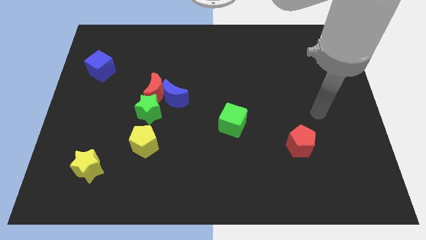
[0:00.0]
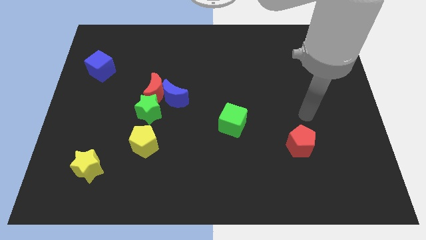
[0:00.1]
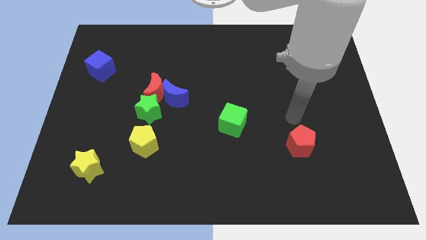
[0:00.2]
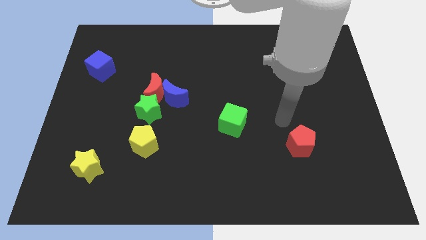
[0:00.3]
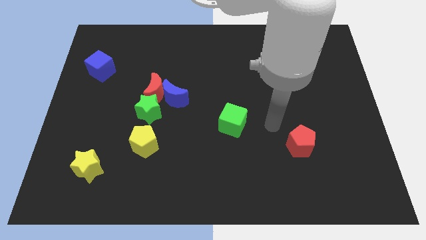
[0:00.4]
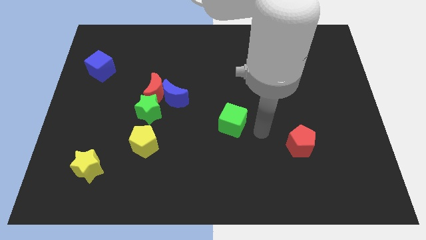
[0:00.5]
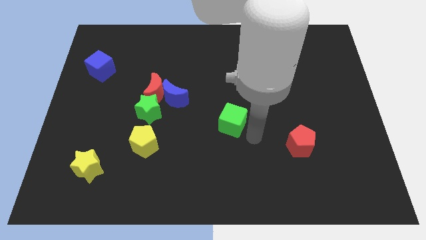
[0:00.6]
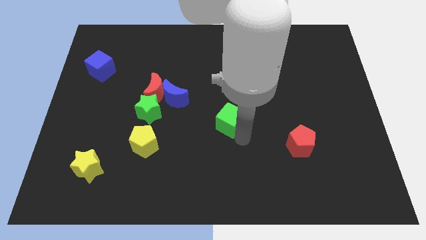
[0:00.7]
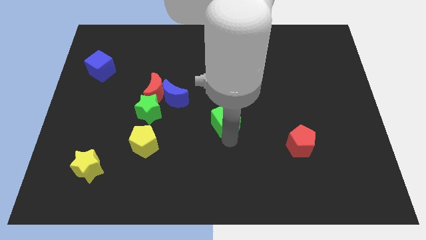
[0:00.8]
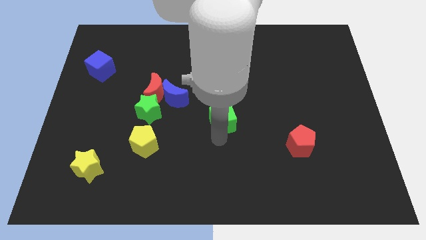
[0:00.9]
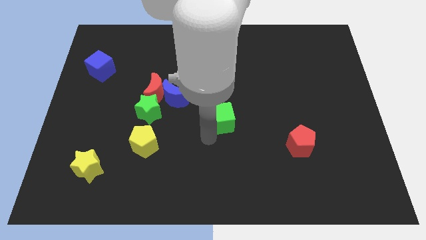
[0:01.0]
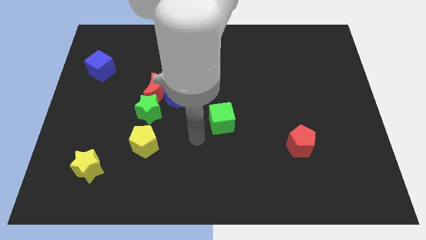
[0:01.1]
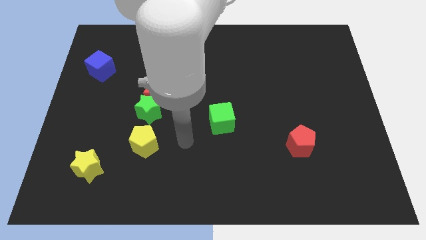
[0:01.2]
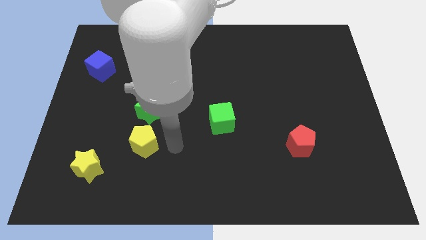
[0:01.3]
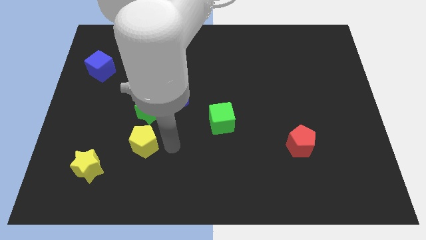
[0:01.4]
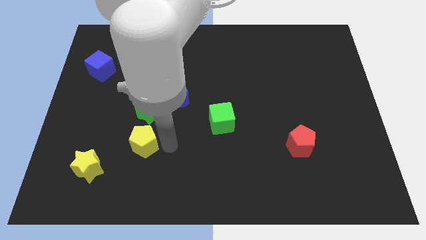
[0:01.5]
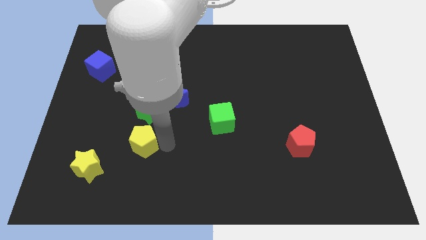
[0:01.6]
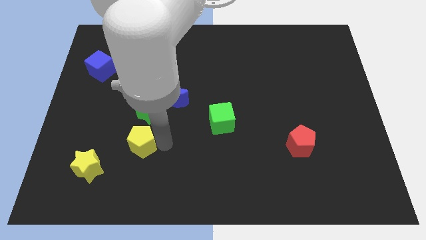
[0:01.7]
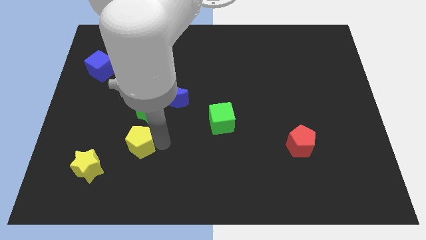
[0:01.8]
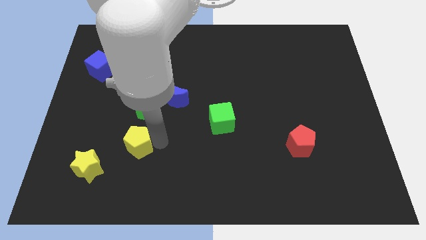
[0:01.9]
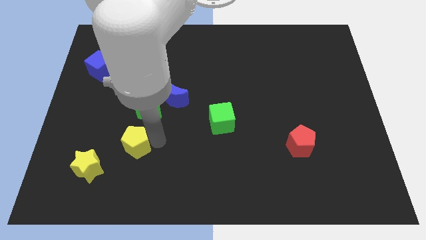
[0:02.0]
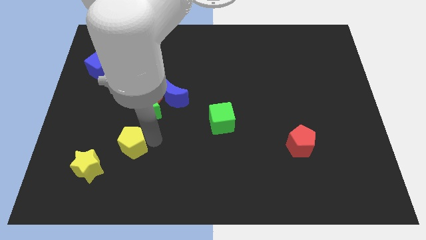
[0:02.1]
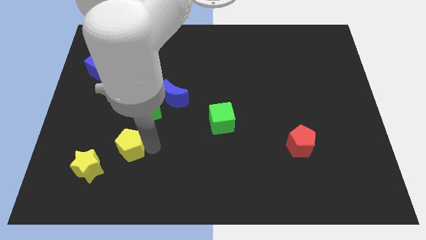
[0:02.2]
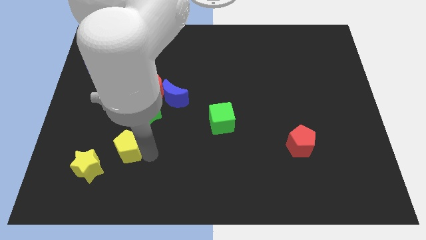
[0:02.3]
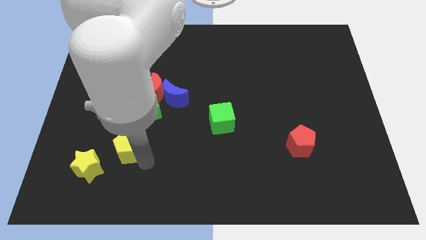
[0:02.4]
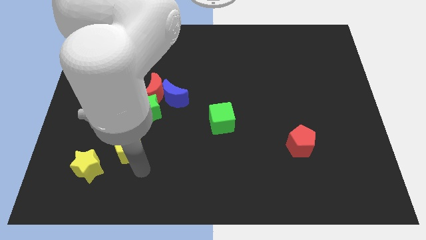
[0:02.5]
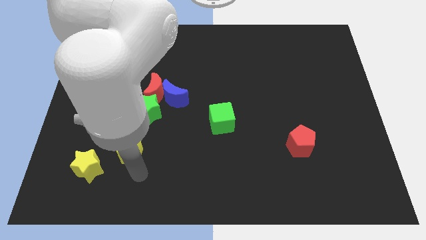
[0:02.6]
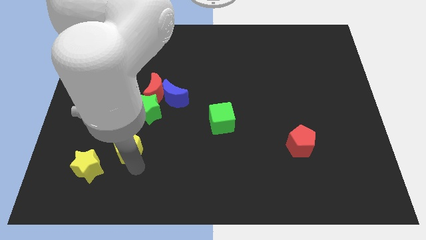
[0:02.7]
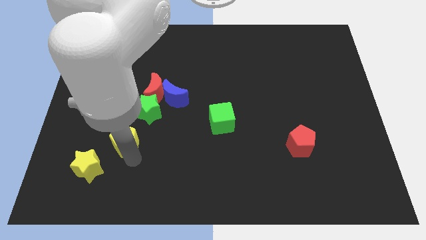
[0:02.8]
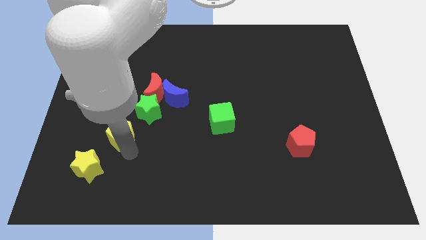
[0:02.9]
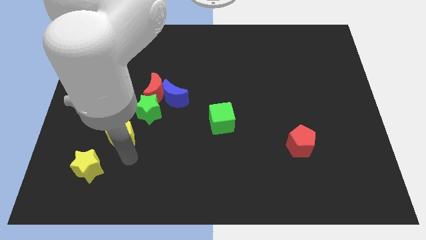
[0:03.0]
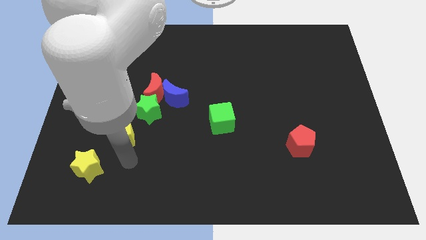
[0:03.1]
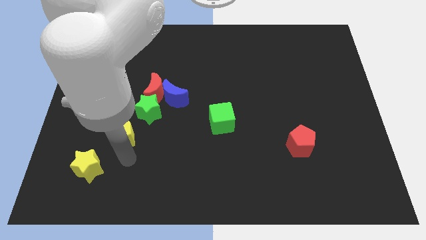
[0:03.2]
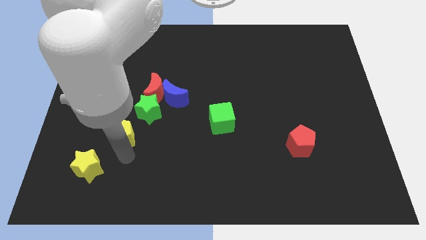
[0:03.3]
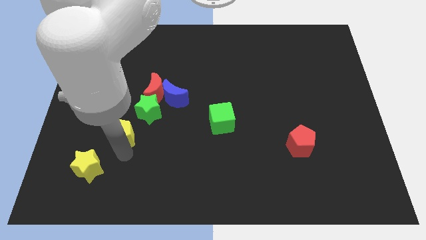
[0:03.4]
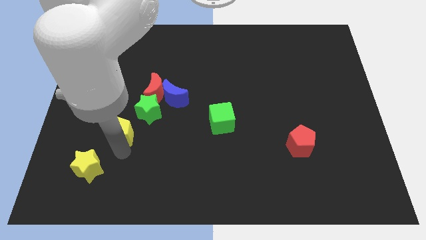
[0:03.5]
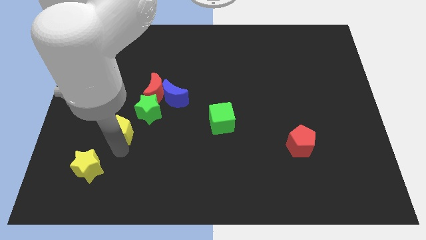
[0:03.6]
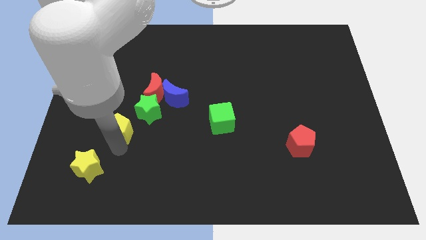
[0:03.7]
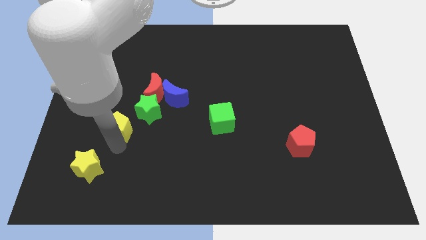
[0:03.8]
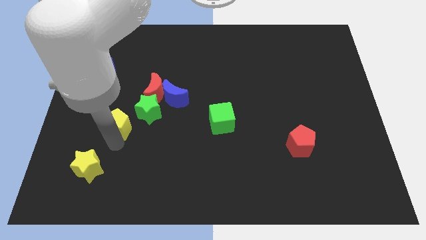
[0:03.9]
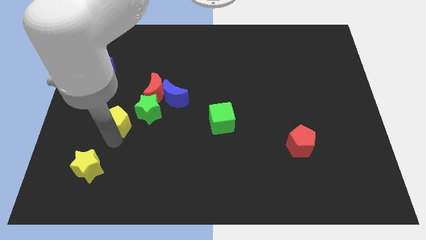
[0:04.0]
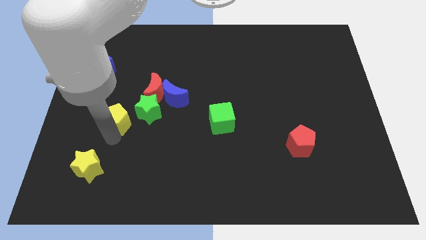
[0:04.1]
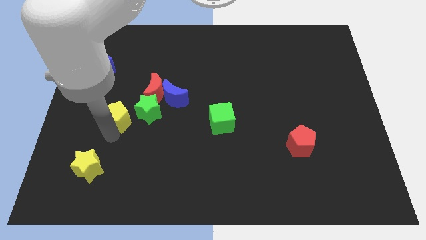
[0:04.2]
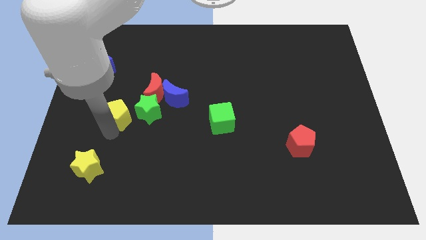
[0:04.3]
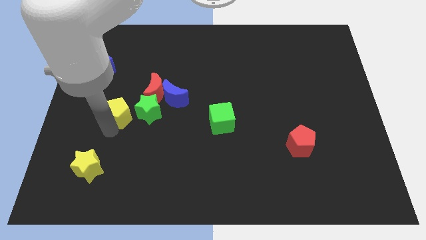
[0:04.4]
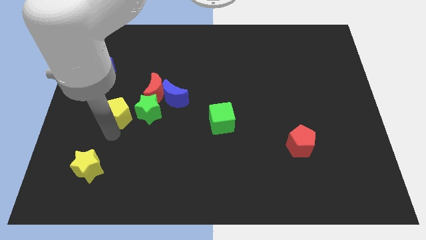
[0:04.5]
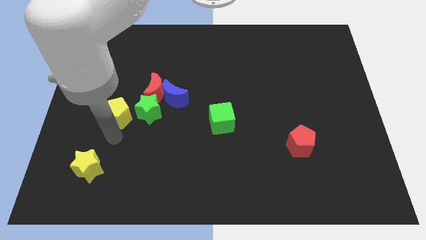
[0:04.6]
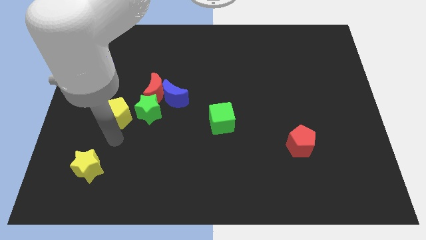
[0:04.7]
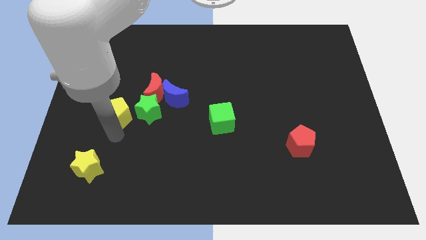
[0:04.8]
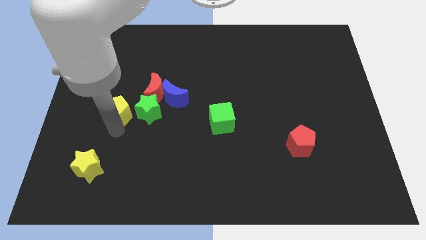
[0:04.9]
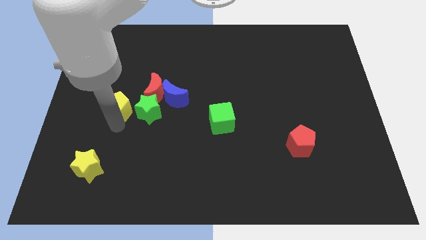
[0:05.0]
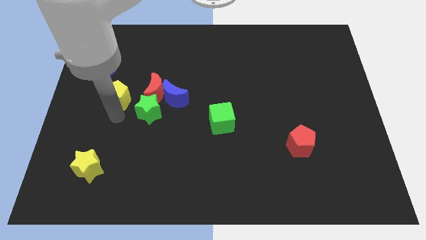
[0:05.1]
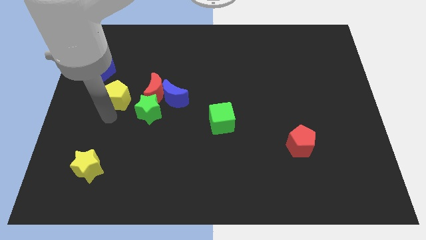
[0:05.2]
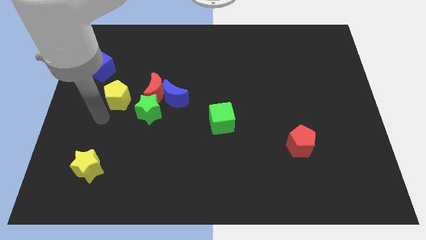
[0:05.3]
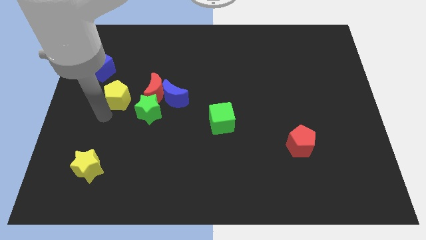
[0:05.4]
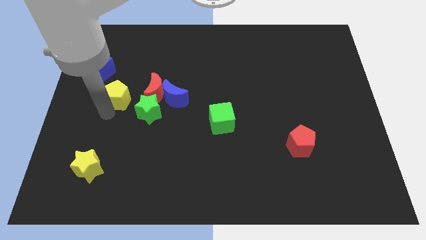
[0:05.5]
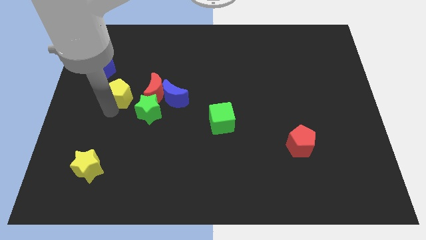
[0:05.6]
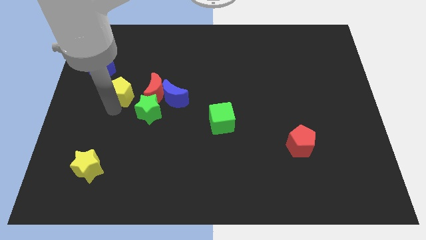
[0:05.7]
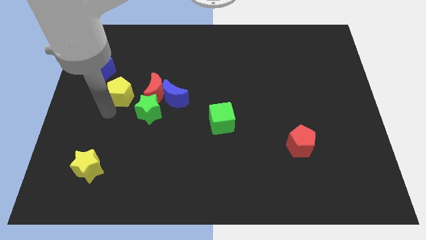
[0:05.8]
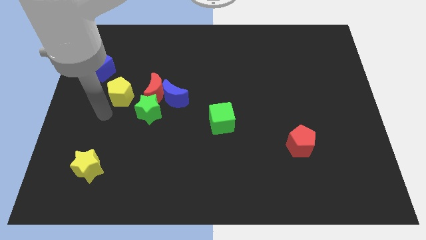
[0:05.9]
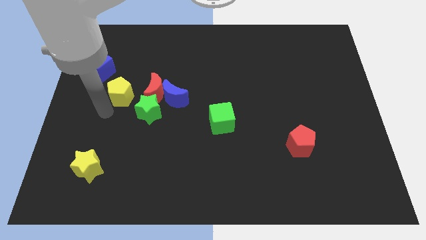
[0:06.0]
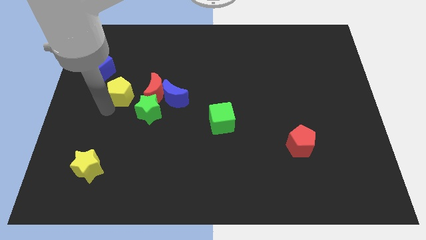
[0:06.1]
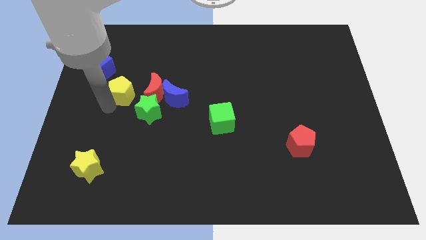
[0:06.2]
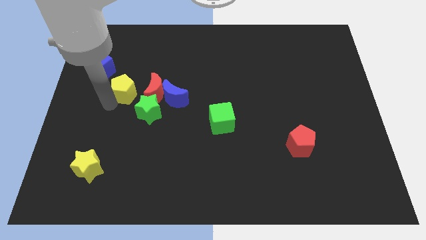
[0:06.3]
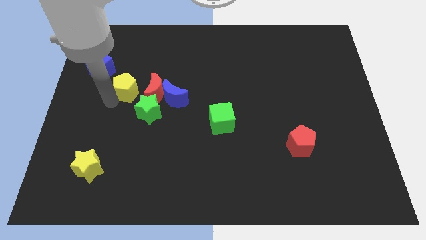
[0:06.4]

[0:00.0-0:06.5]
move the yellow pentagon to the top left side of the red moon

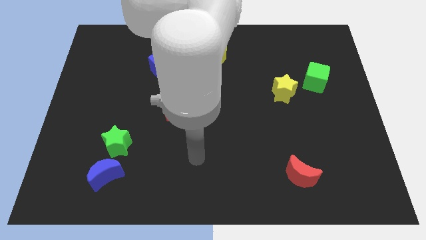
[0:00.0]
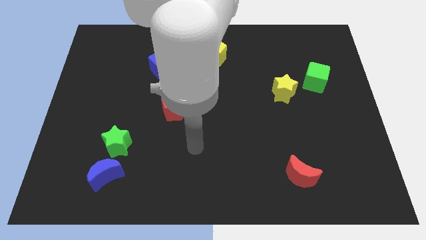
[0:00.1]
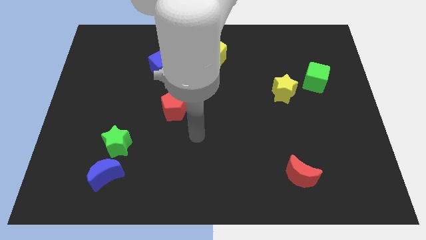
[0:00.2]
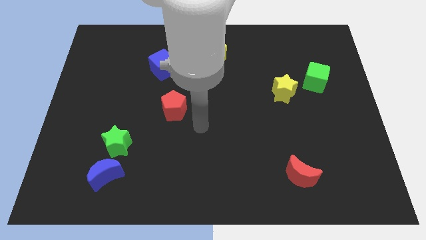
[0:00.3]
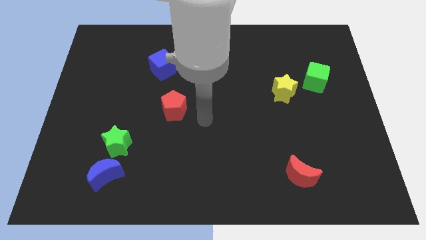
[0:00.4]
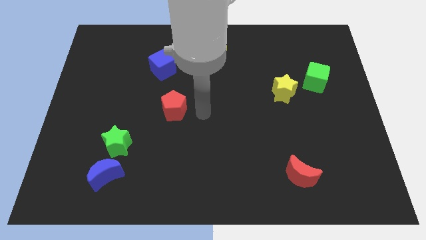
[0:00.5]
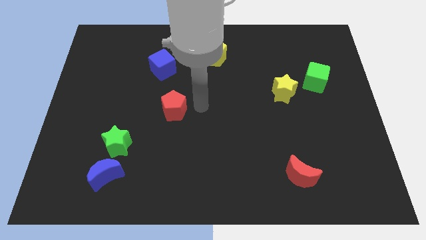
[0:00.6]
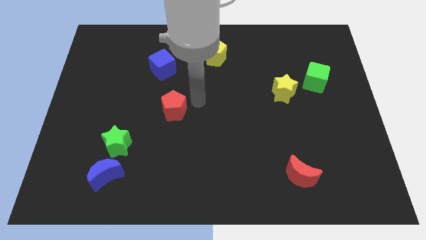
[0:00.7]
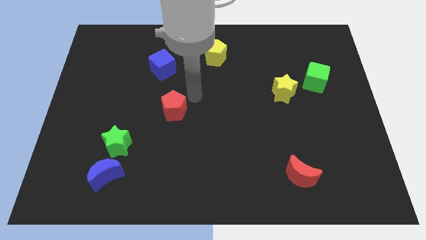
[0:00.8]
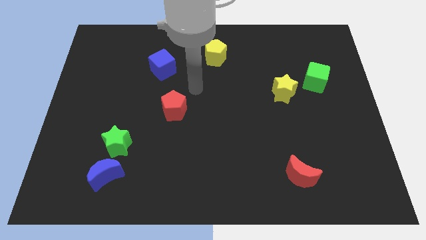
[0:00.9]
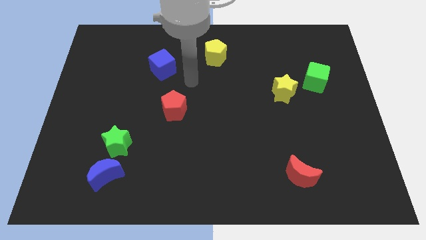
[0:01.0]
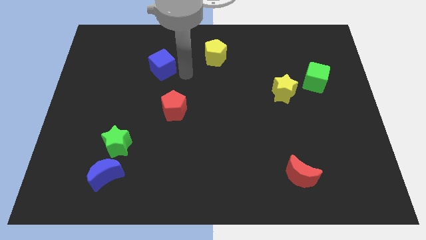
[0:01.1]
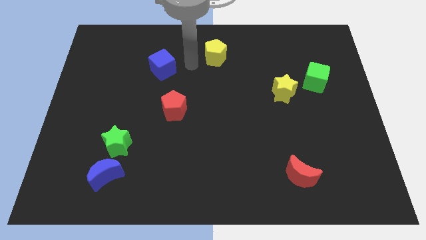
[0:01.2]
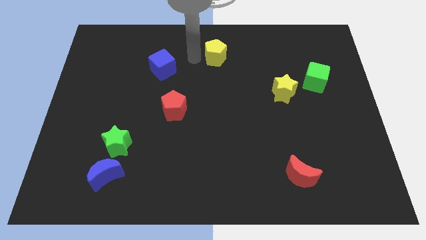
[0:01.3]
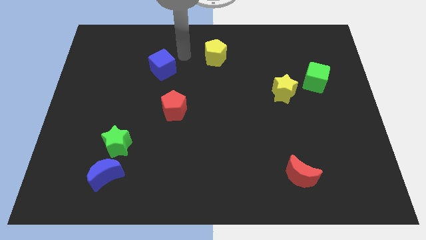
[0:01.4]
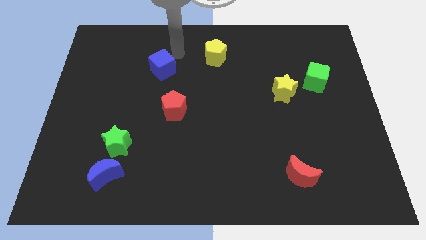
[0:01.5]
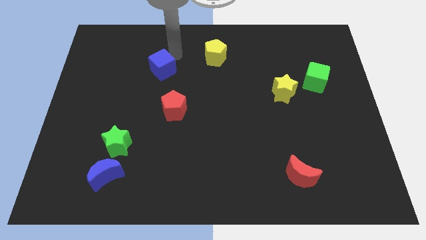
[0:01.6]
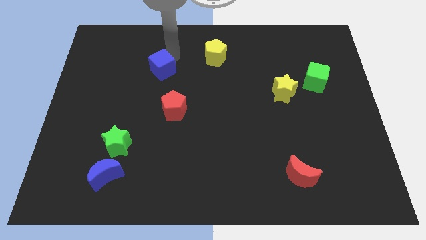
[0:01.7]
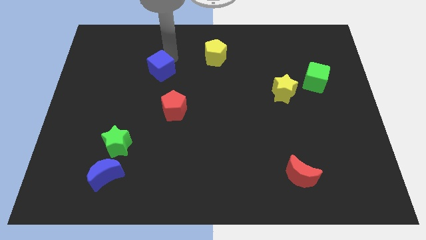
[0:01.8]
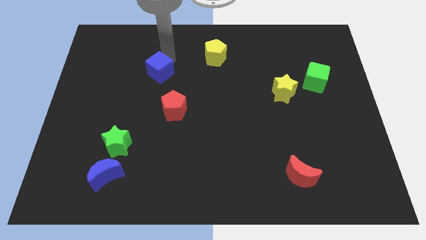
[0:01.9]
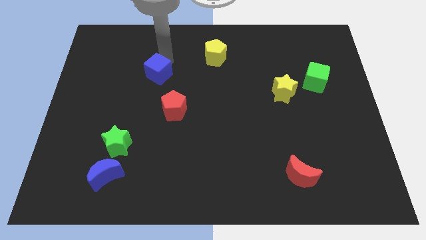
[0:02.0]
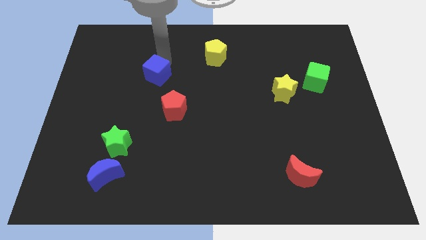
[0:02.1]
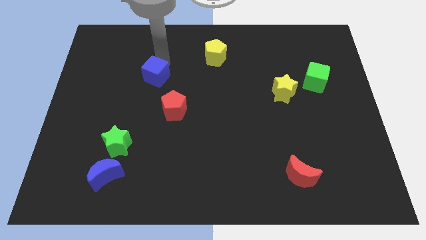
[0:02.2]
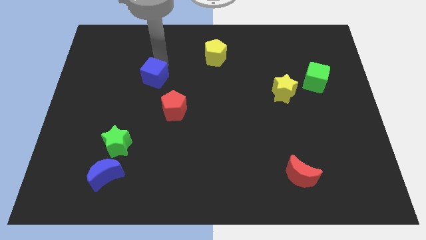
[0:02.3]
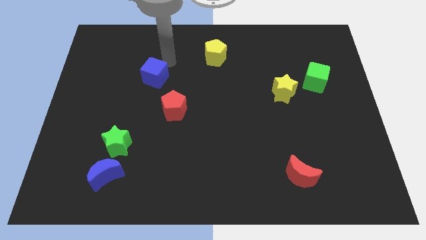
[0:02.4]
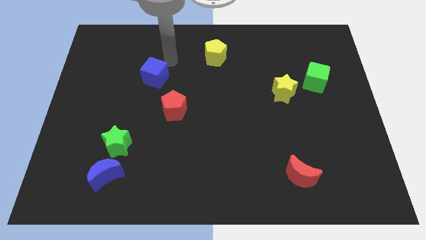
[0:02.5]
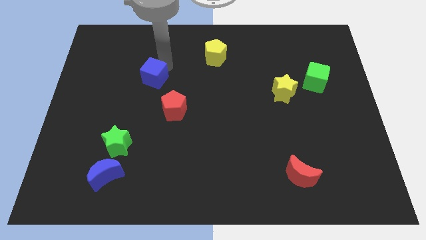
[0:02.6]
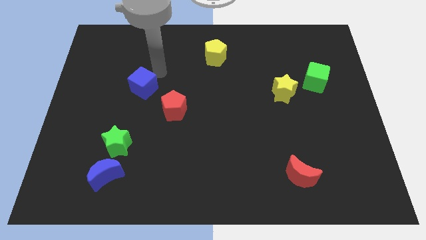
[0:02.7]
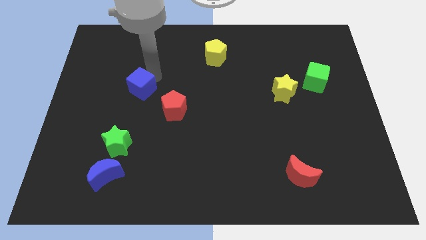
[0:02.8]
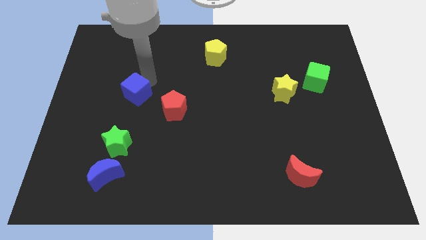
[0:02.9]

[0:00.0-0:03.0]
move the blue cube to the top side of the green star
